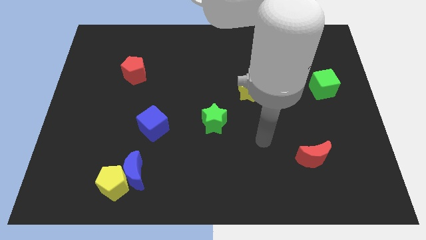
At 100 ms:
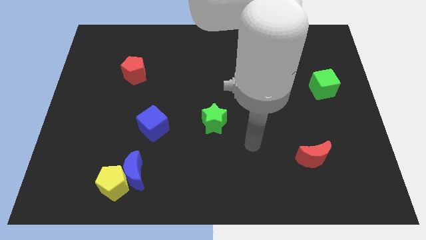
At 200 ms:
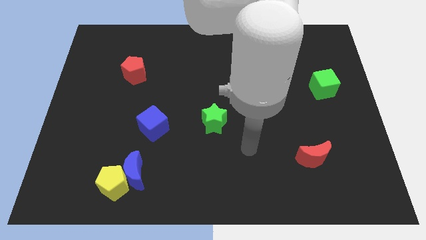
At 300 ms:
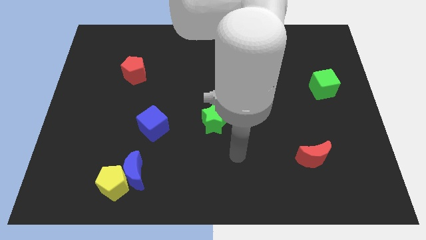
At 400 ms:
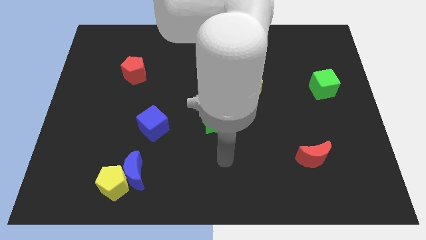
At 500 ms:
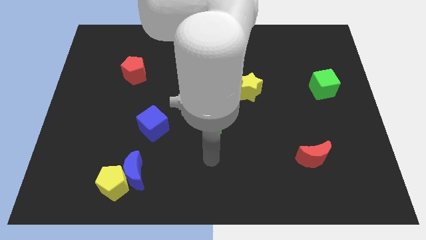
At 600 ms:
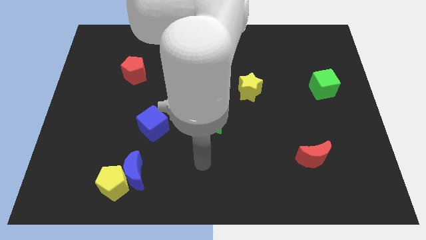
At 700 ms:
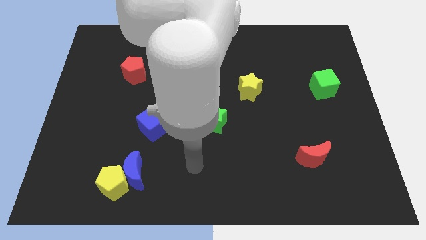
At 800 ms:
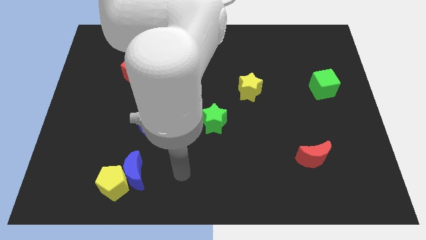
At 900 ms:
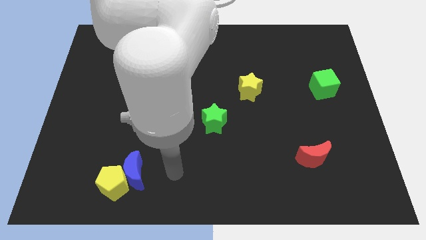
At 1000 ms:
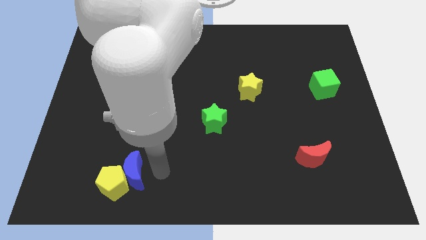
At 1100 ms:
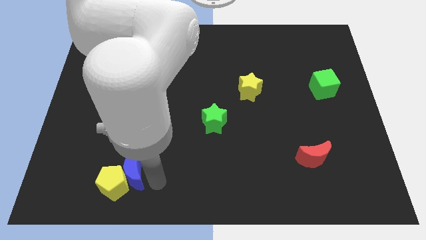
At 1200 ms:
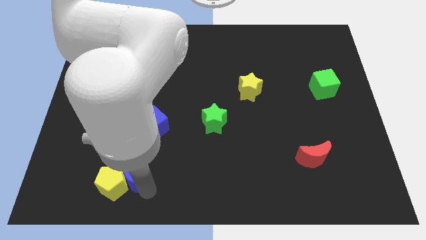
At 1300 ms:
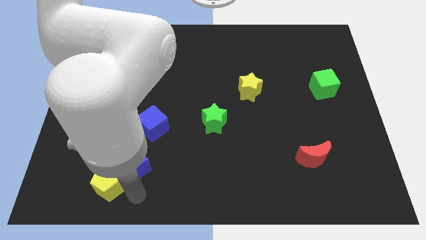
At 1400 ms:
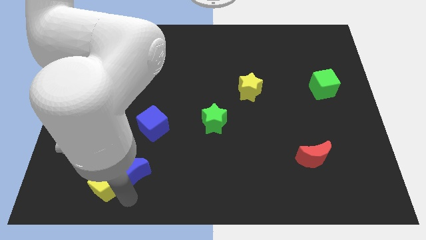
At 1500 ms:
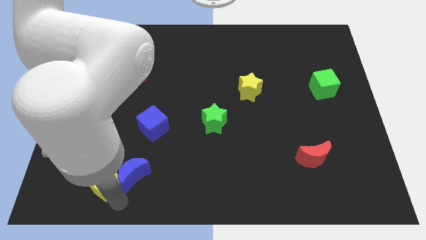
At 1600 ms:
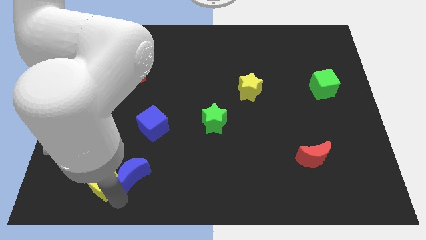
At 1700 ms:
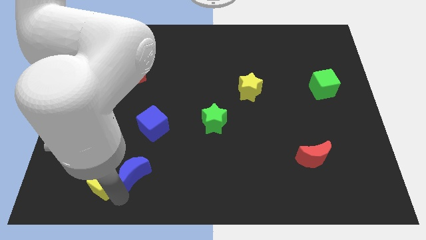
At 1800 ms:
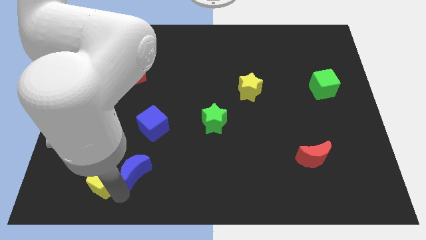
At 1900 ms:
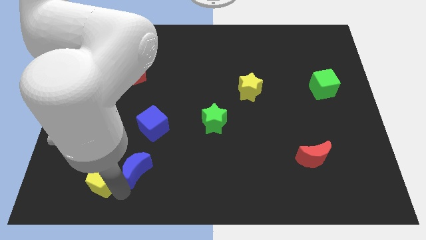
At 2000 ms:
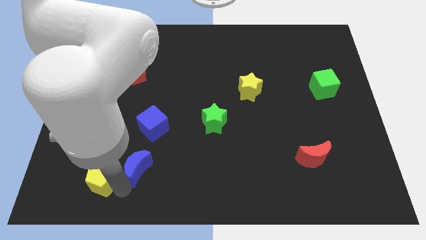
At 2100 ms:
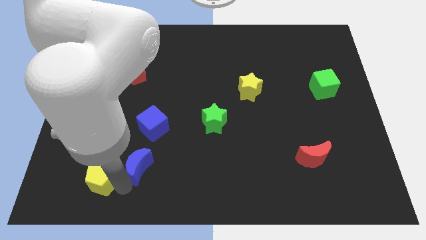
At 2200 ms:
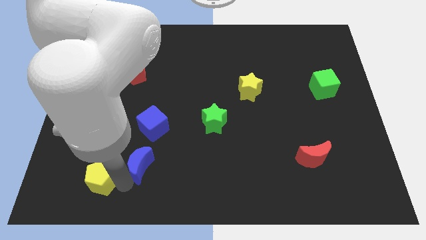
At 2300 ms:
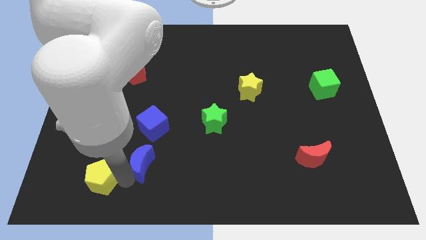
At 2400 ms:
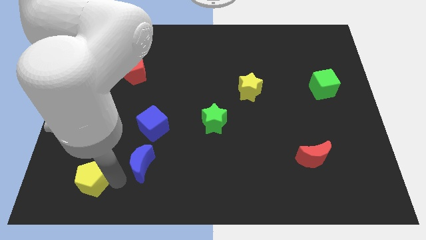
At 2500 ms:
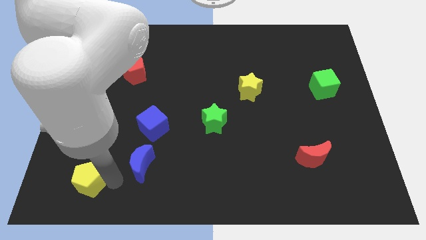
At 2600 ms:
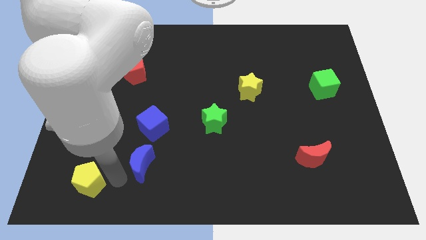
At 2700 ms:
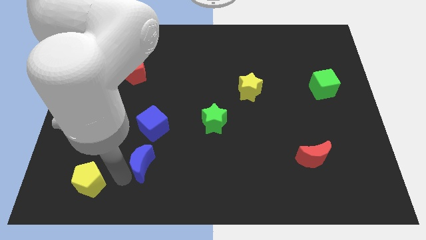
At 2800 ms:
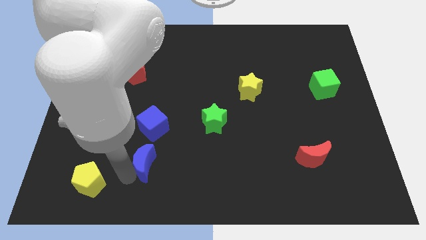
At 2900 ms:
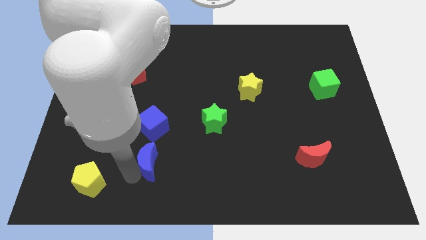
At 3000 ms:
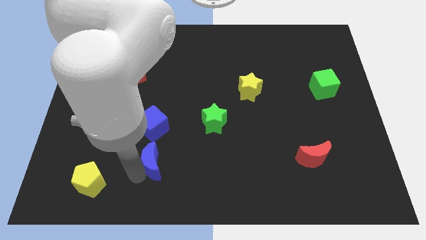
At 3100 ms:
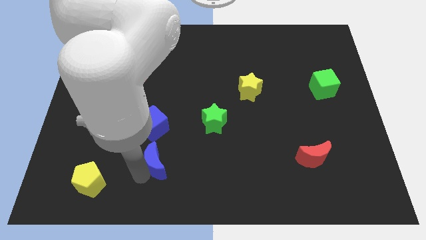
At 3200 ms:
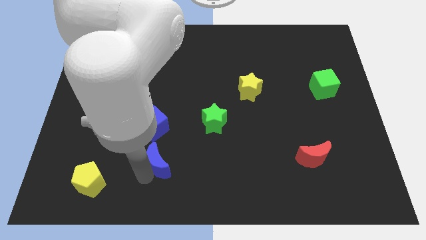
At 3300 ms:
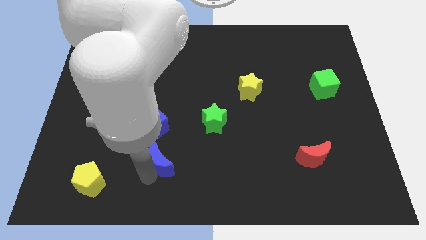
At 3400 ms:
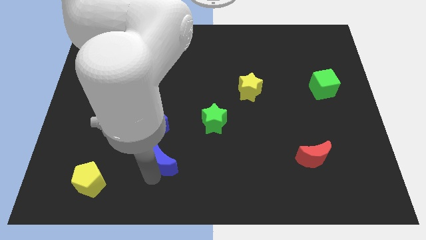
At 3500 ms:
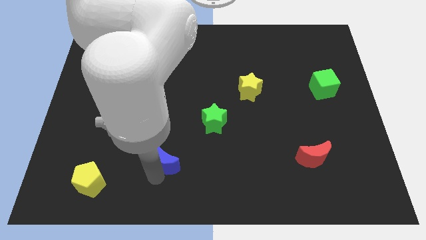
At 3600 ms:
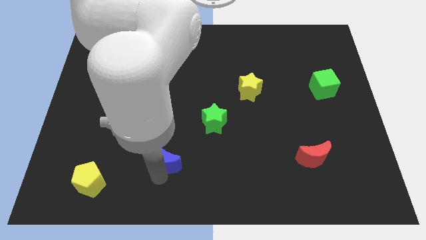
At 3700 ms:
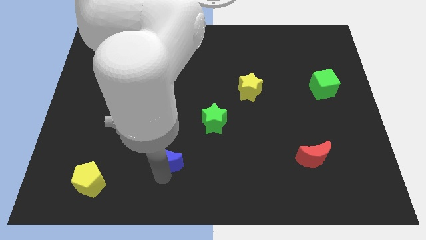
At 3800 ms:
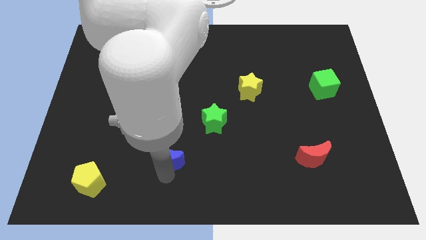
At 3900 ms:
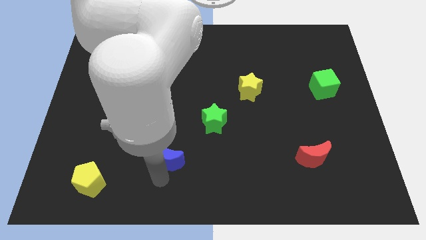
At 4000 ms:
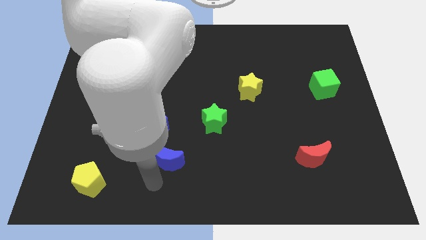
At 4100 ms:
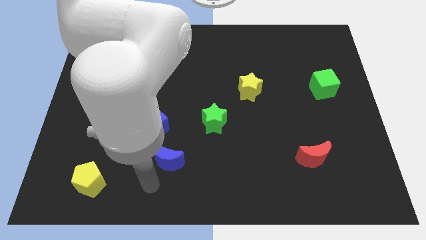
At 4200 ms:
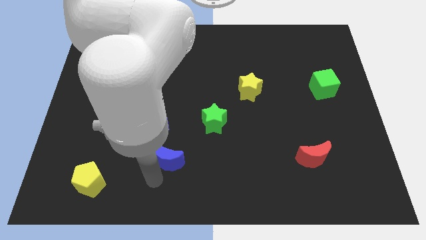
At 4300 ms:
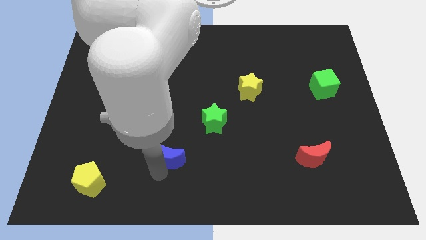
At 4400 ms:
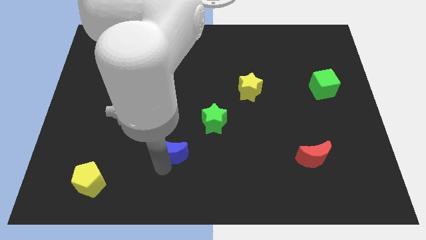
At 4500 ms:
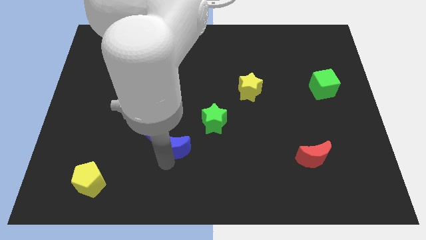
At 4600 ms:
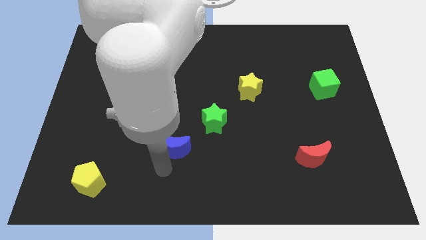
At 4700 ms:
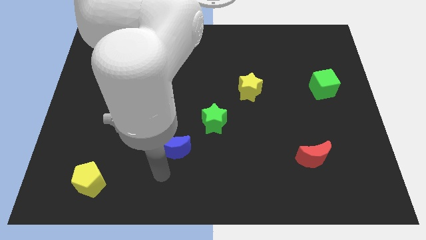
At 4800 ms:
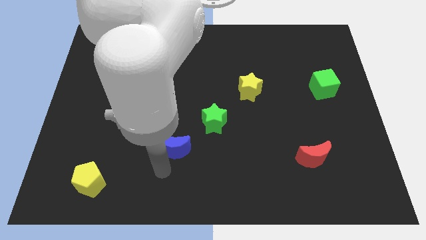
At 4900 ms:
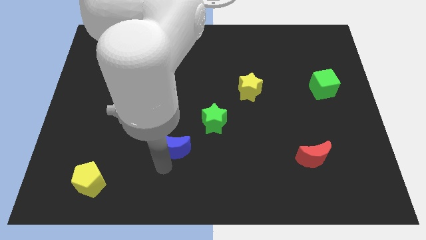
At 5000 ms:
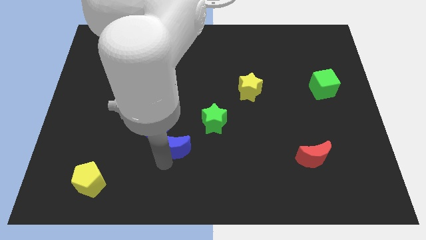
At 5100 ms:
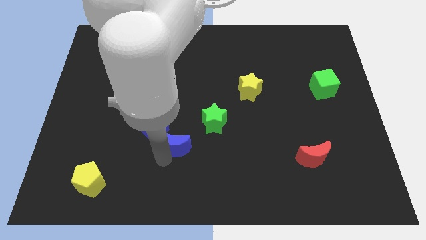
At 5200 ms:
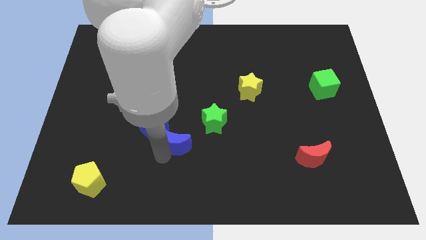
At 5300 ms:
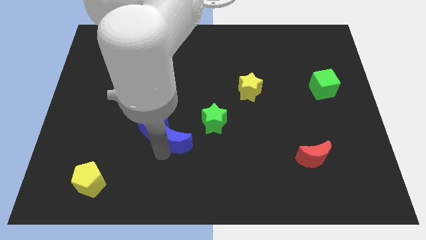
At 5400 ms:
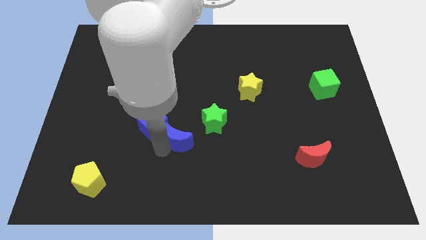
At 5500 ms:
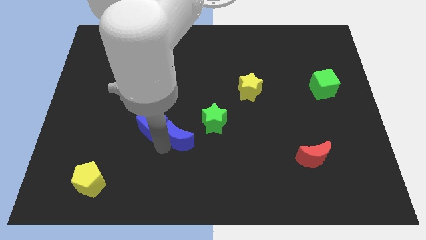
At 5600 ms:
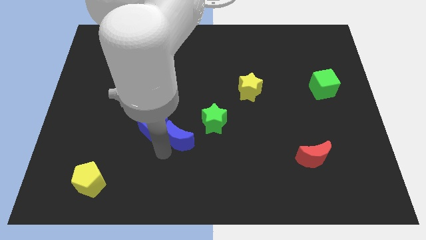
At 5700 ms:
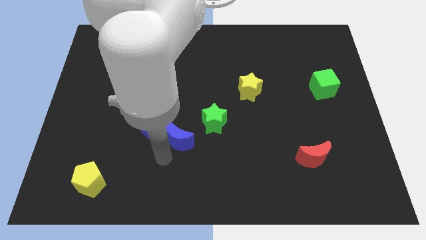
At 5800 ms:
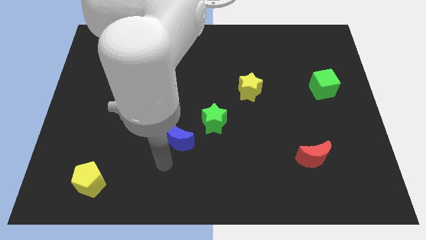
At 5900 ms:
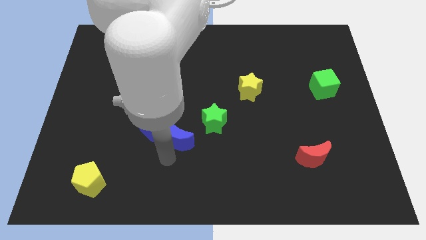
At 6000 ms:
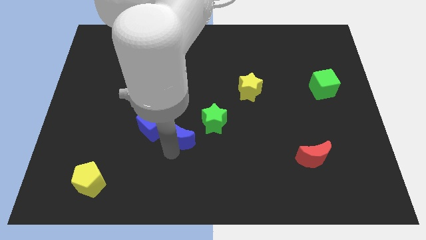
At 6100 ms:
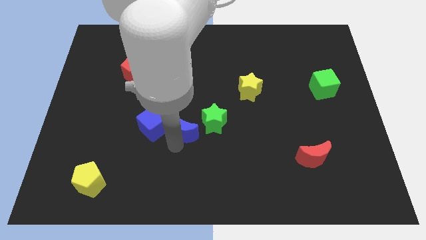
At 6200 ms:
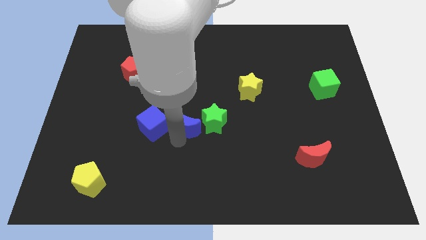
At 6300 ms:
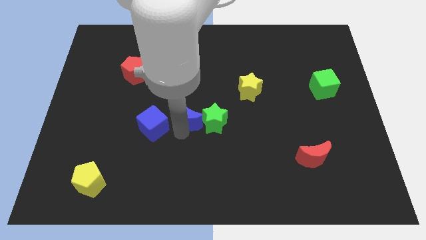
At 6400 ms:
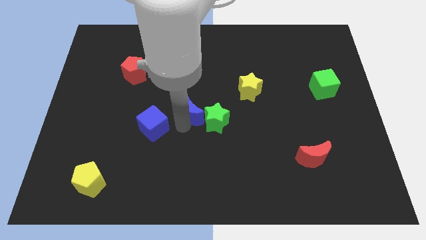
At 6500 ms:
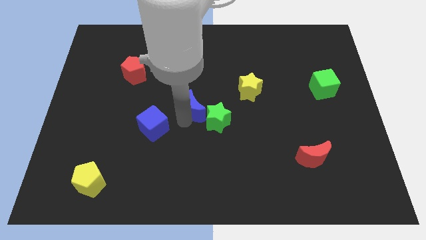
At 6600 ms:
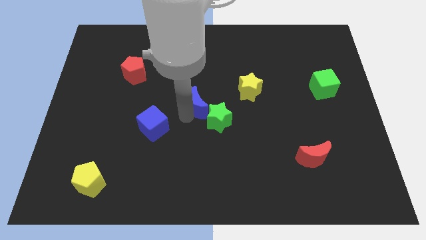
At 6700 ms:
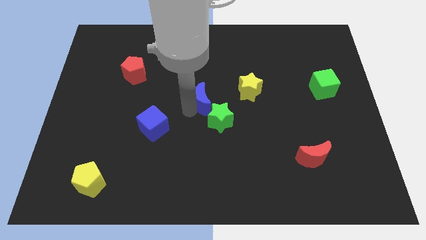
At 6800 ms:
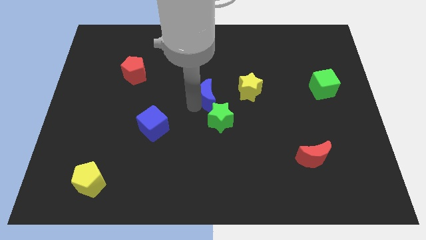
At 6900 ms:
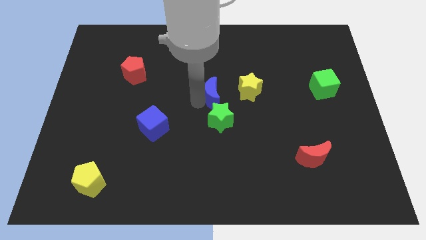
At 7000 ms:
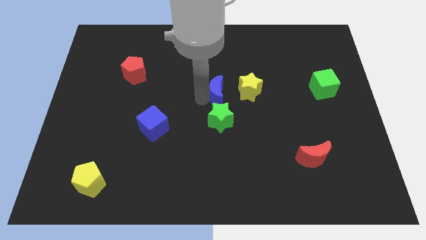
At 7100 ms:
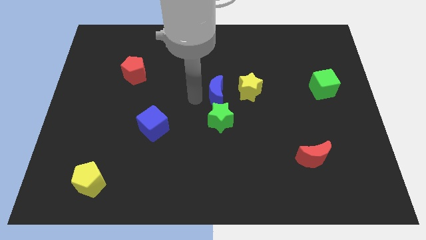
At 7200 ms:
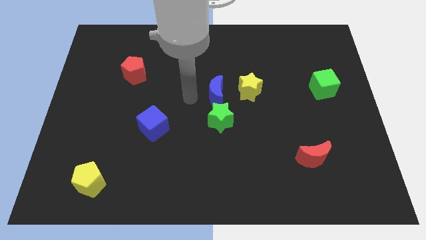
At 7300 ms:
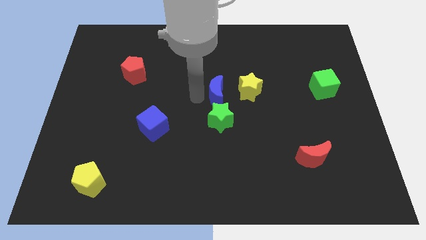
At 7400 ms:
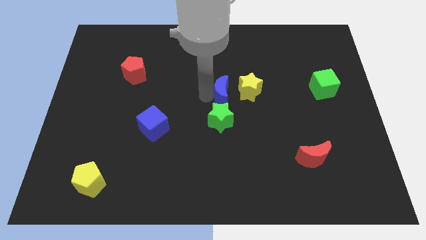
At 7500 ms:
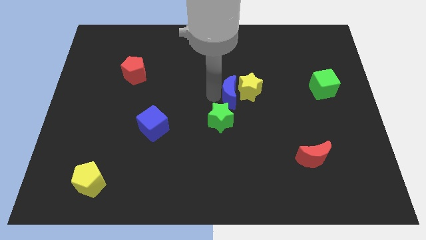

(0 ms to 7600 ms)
push the blue moon to the yellow star

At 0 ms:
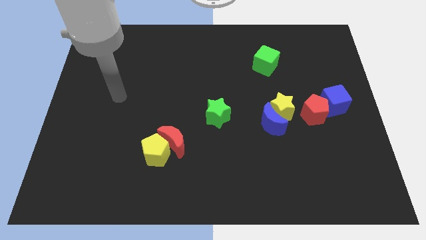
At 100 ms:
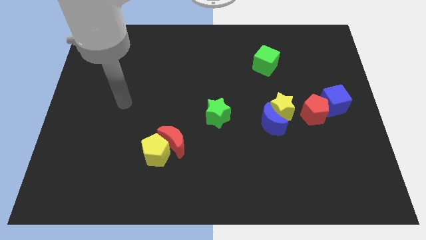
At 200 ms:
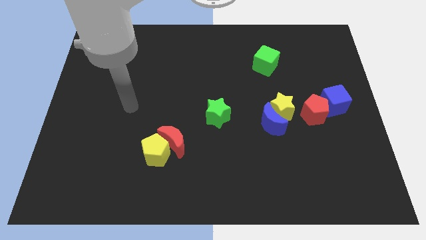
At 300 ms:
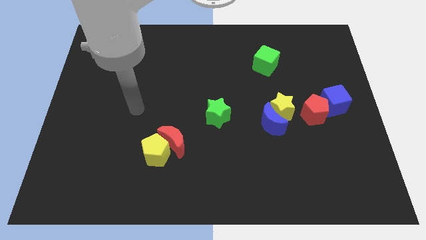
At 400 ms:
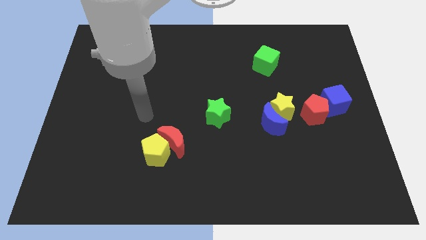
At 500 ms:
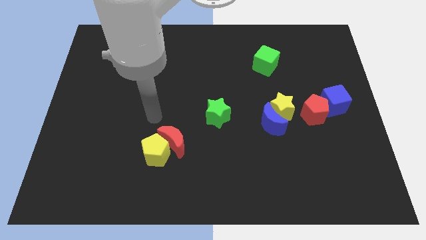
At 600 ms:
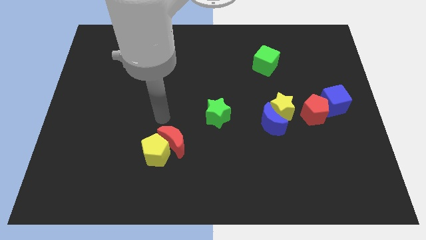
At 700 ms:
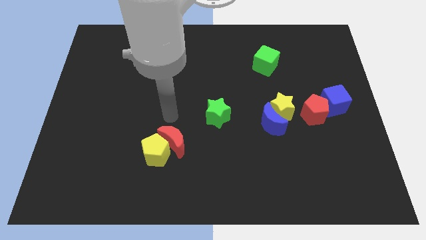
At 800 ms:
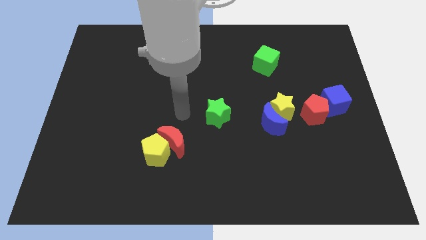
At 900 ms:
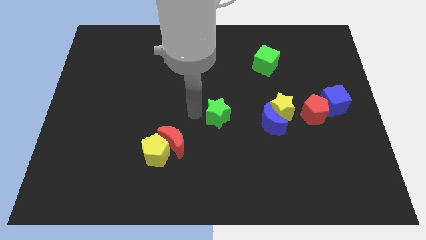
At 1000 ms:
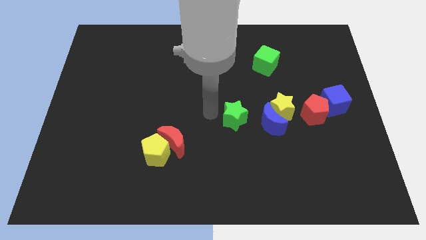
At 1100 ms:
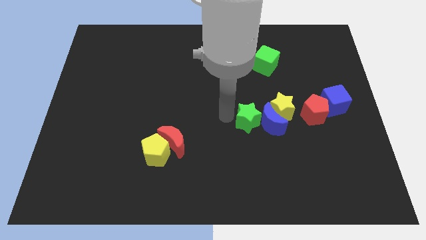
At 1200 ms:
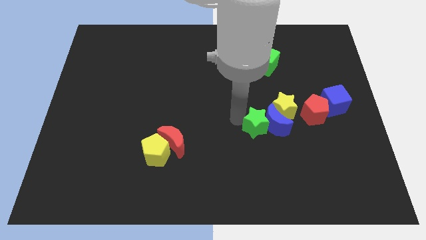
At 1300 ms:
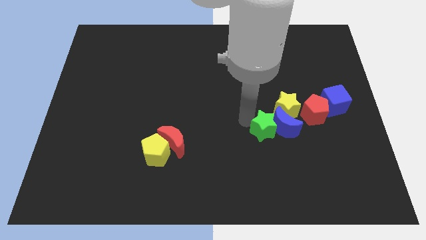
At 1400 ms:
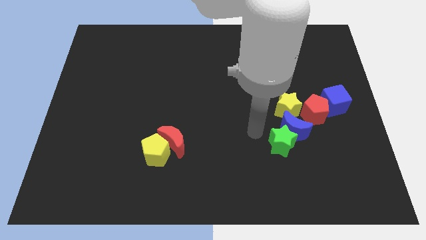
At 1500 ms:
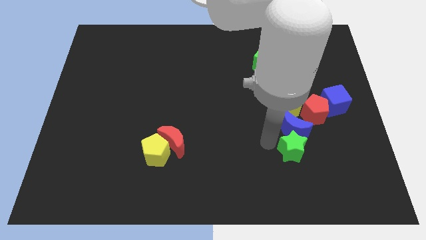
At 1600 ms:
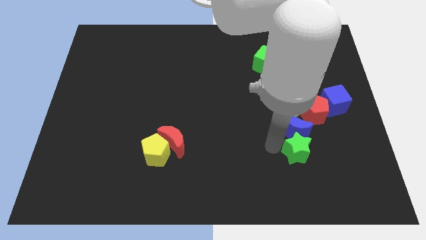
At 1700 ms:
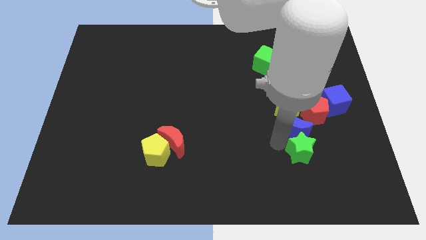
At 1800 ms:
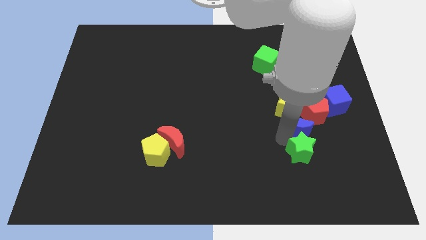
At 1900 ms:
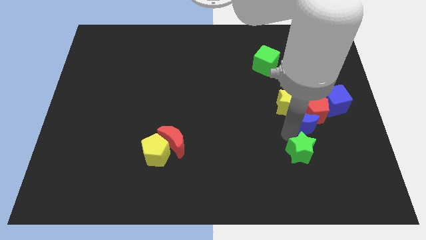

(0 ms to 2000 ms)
put the blue moon towards the red pentagon
